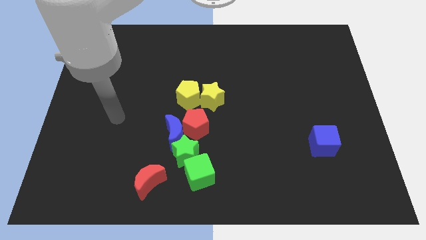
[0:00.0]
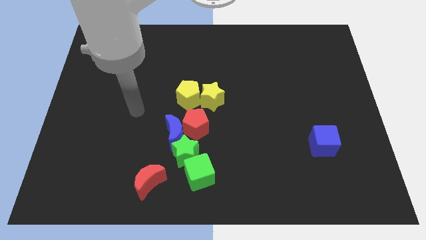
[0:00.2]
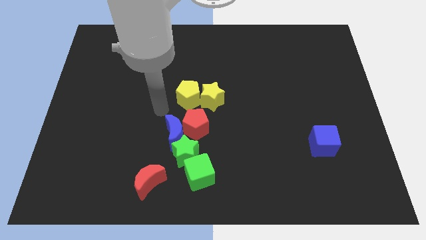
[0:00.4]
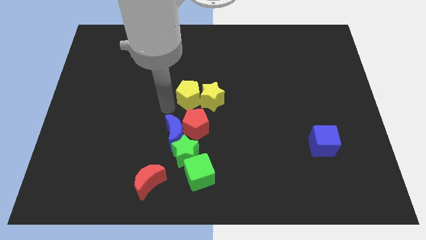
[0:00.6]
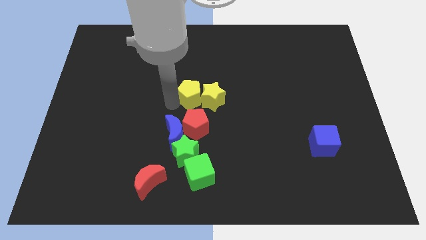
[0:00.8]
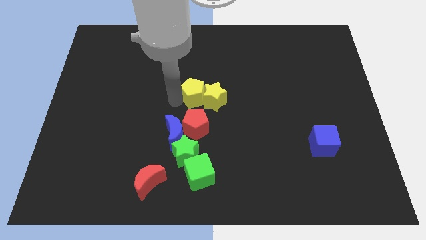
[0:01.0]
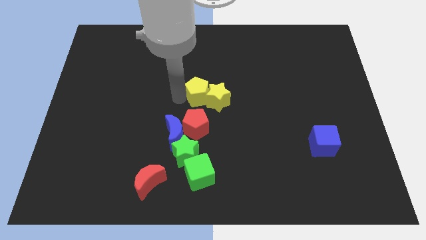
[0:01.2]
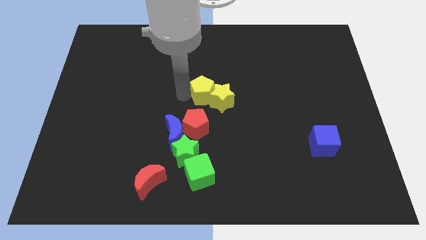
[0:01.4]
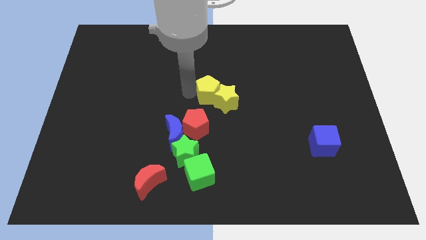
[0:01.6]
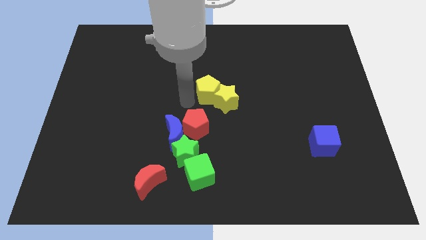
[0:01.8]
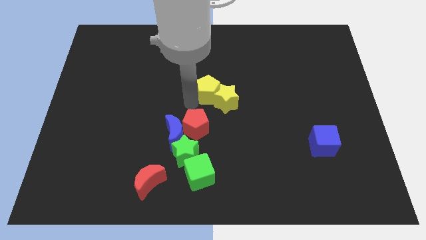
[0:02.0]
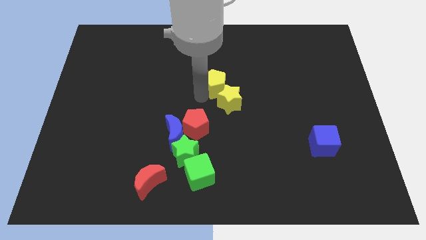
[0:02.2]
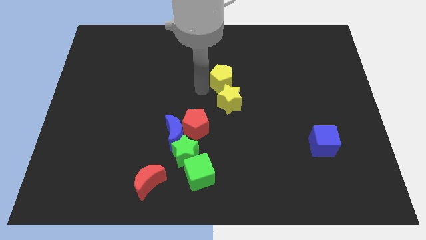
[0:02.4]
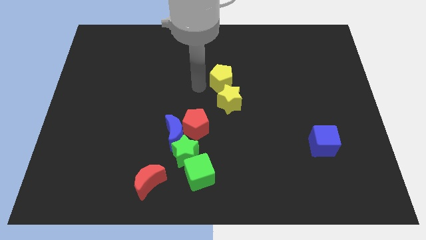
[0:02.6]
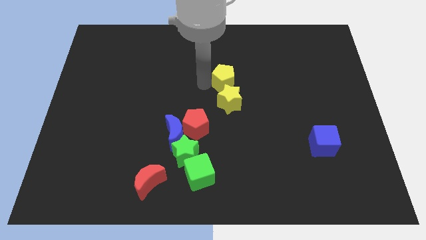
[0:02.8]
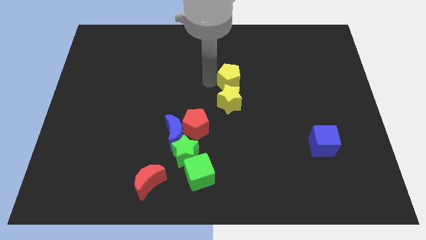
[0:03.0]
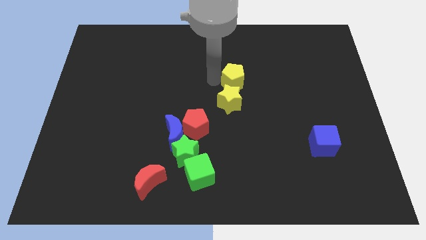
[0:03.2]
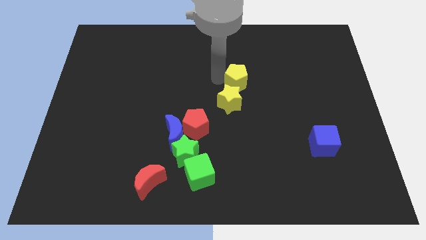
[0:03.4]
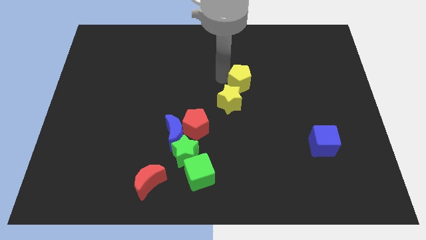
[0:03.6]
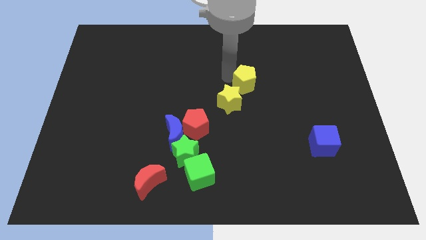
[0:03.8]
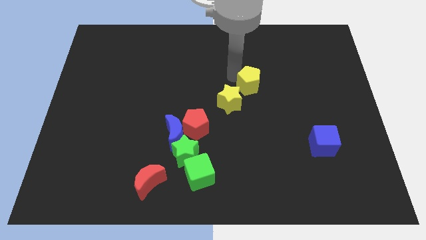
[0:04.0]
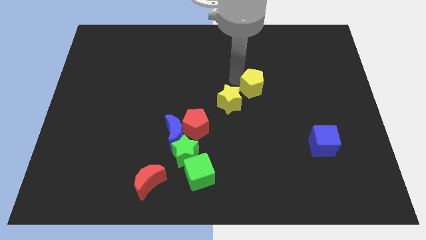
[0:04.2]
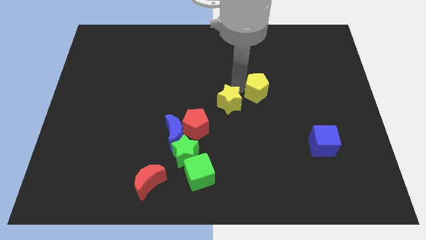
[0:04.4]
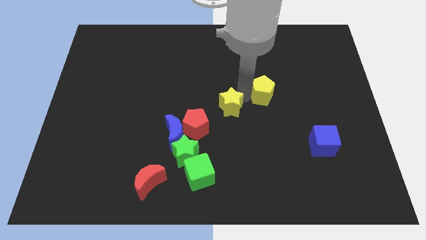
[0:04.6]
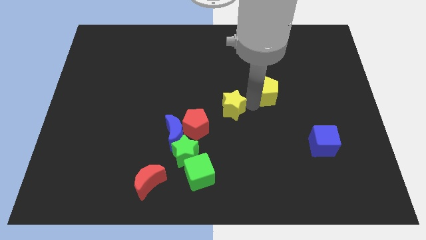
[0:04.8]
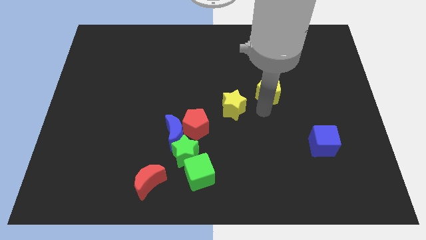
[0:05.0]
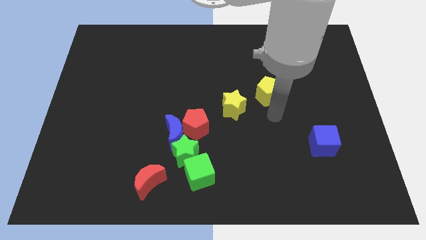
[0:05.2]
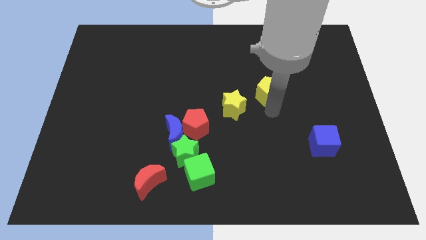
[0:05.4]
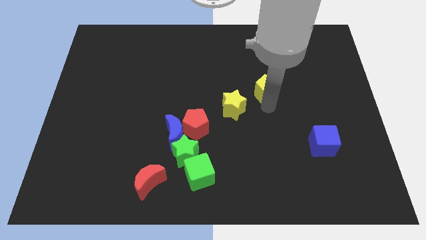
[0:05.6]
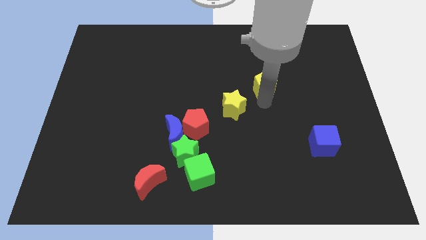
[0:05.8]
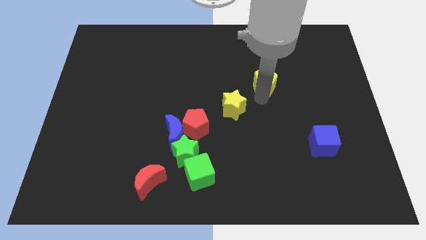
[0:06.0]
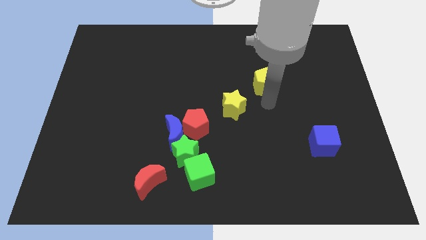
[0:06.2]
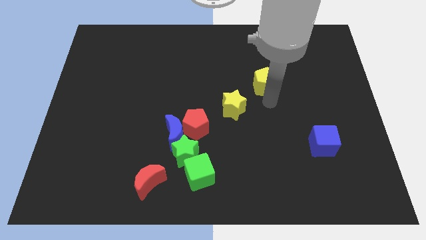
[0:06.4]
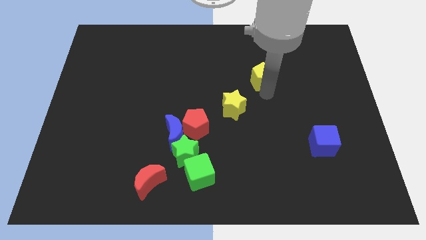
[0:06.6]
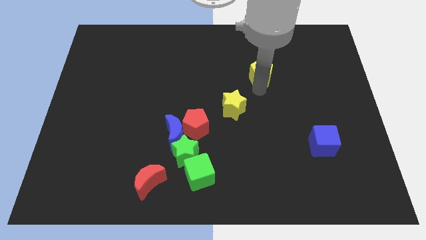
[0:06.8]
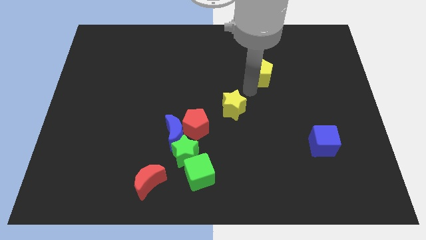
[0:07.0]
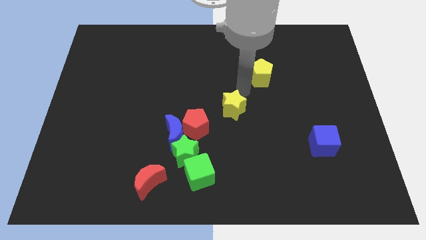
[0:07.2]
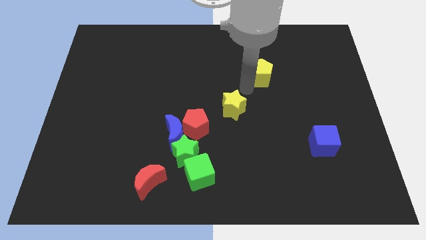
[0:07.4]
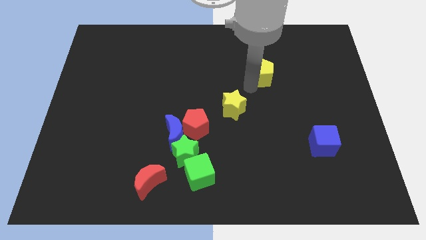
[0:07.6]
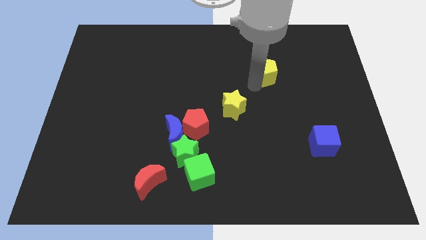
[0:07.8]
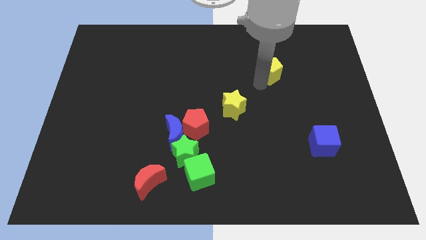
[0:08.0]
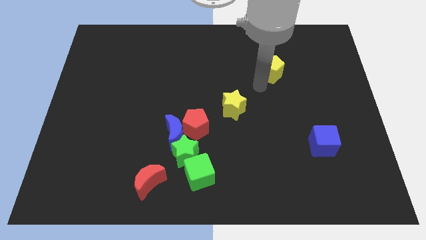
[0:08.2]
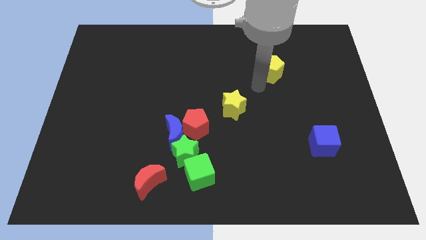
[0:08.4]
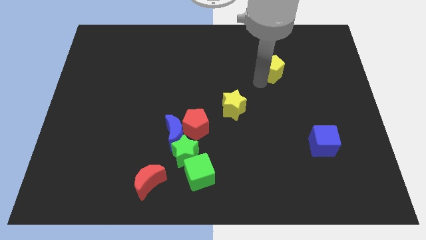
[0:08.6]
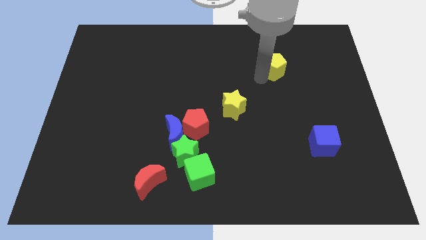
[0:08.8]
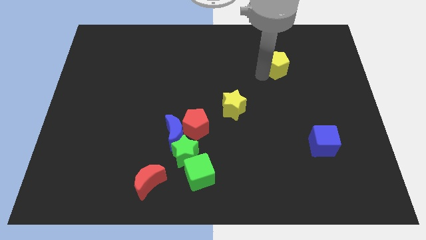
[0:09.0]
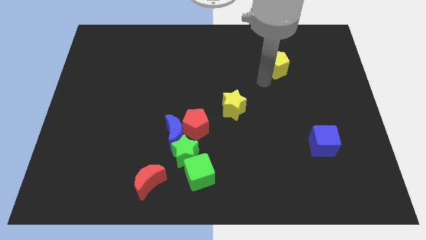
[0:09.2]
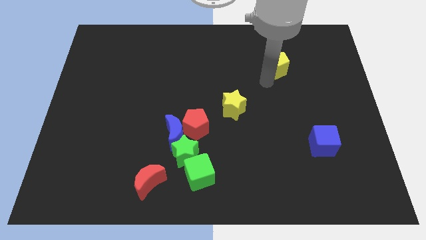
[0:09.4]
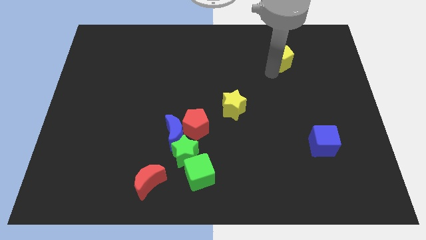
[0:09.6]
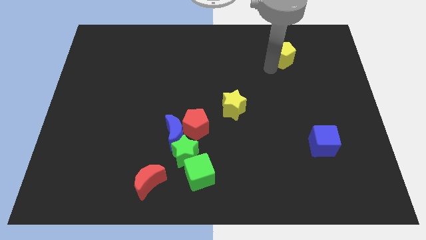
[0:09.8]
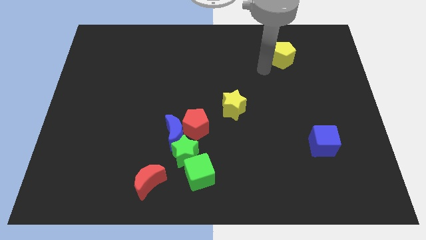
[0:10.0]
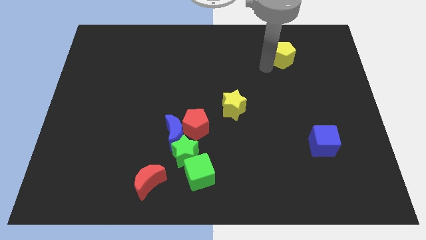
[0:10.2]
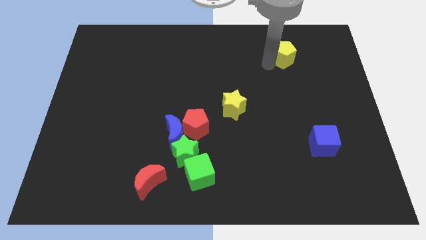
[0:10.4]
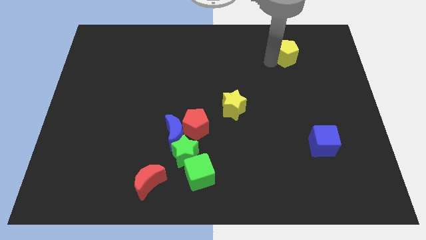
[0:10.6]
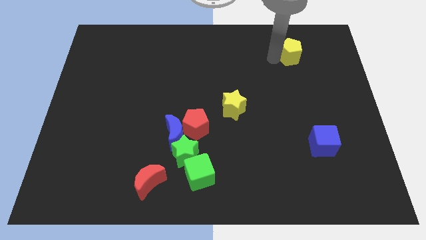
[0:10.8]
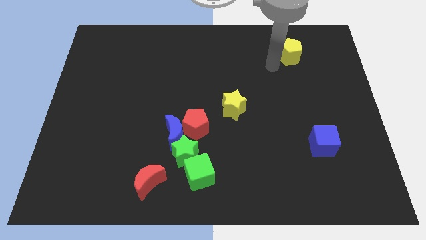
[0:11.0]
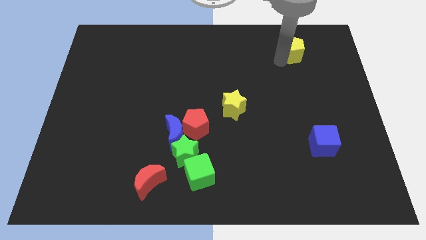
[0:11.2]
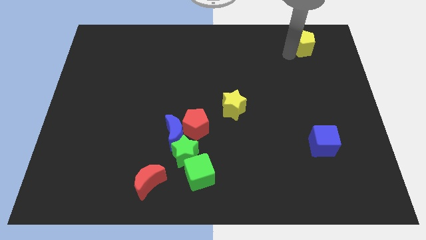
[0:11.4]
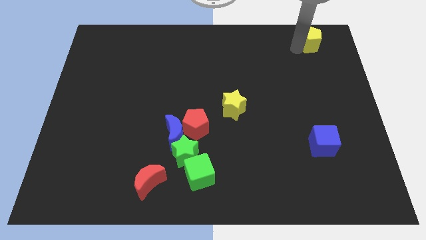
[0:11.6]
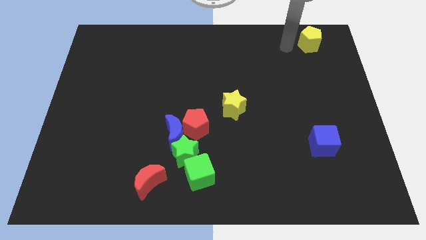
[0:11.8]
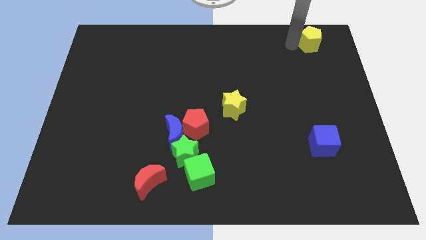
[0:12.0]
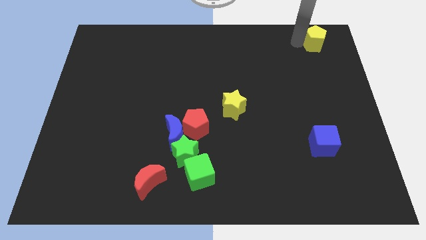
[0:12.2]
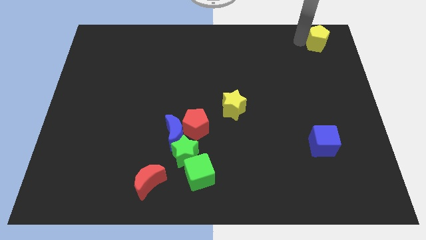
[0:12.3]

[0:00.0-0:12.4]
push the yellow pentagon to the upper right corner
